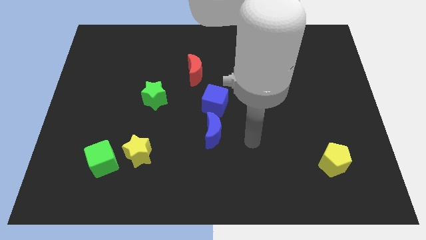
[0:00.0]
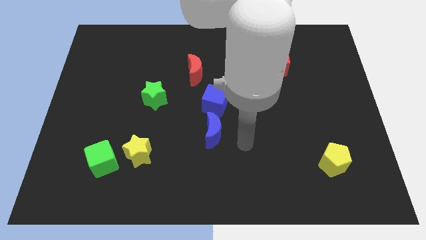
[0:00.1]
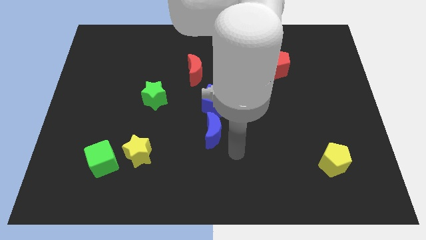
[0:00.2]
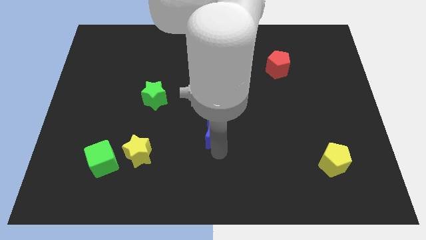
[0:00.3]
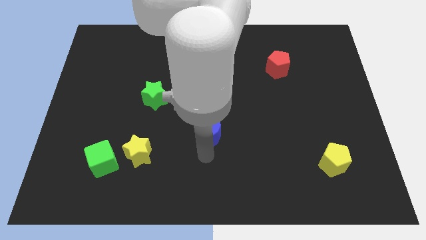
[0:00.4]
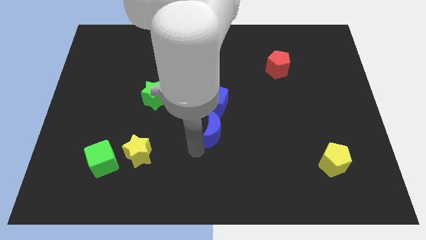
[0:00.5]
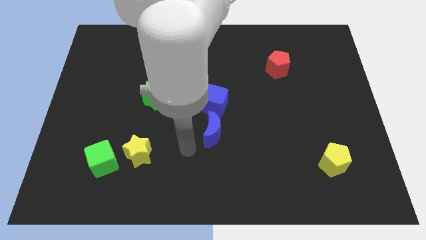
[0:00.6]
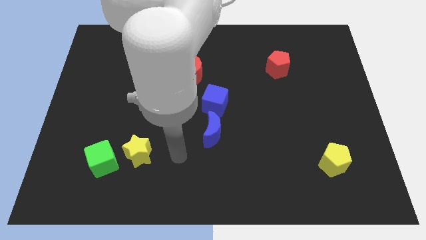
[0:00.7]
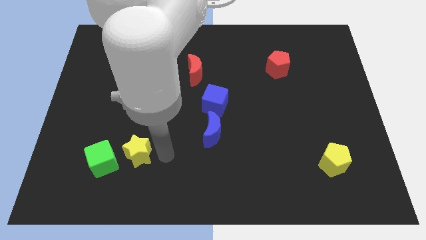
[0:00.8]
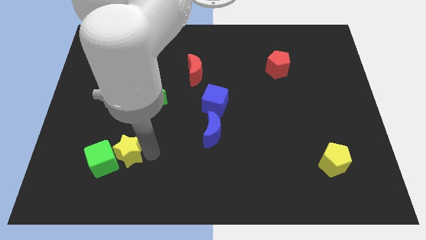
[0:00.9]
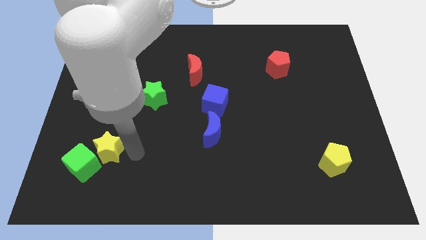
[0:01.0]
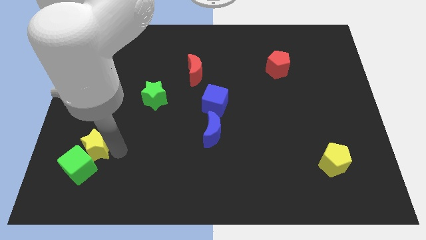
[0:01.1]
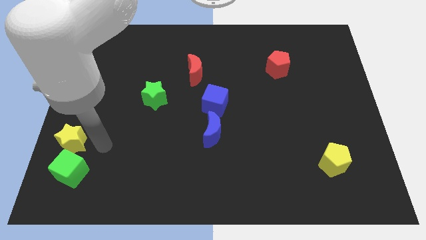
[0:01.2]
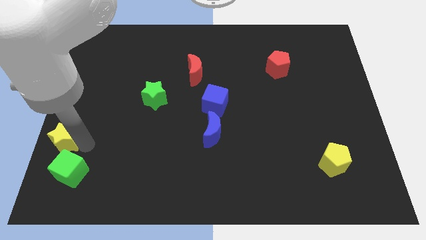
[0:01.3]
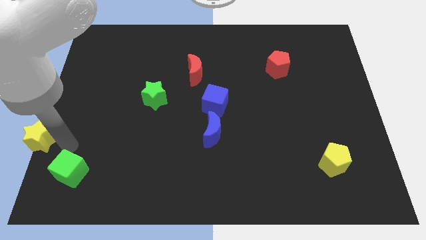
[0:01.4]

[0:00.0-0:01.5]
pull the green cube apart from the yellow star

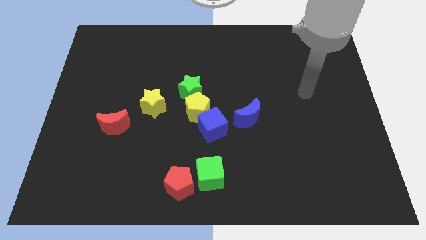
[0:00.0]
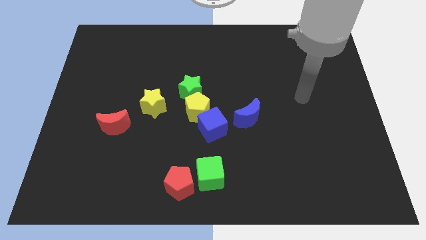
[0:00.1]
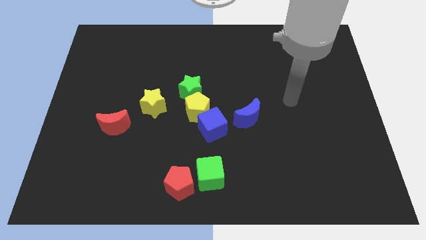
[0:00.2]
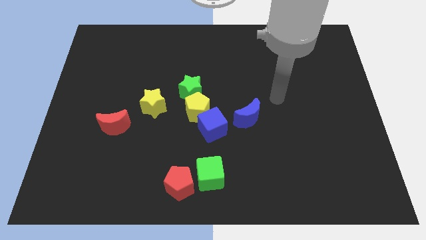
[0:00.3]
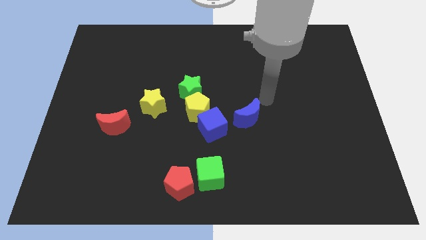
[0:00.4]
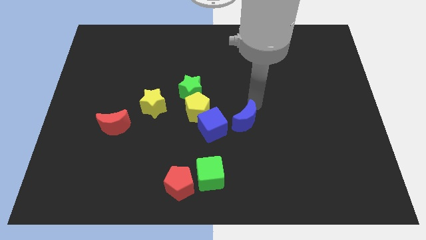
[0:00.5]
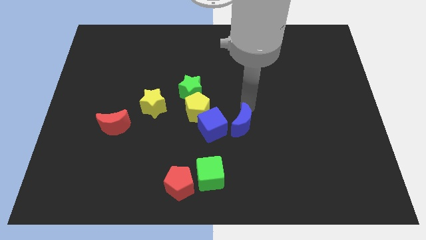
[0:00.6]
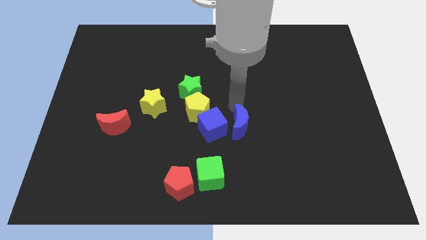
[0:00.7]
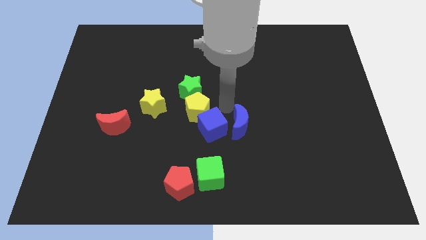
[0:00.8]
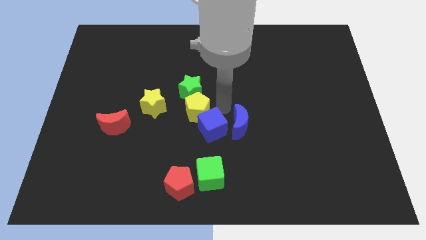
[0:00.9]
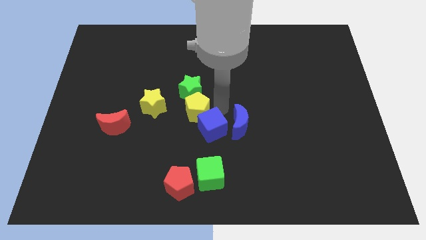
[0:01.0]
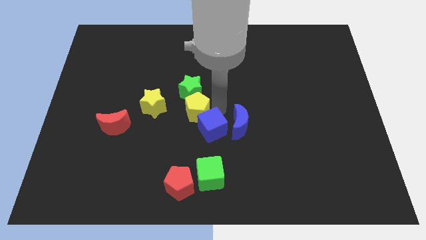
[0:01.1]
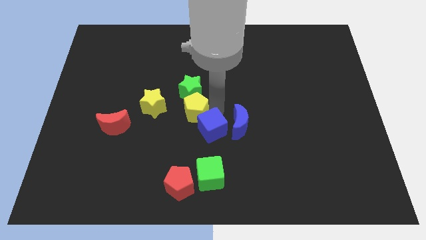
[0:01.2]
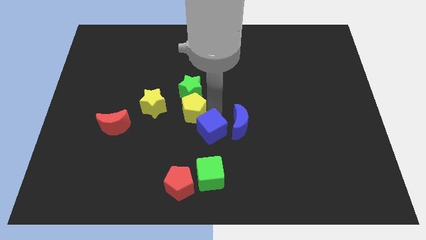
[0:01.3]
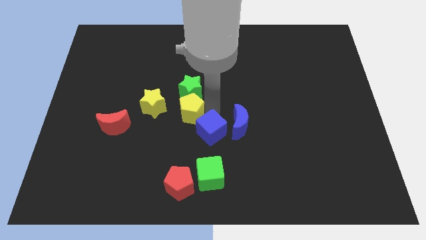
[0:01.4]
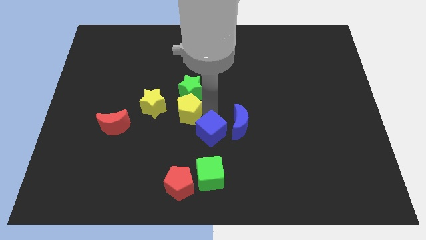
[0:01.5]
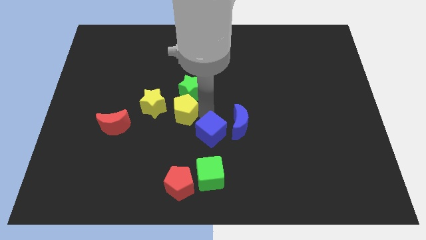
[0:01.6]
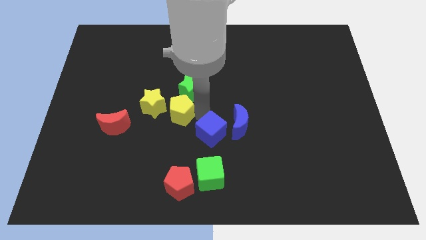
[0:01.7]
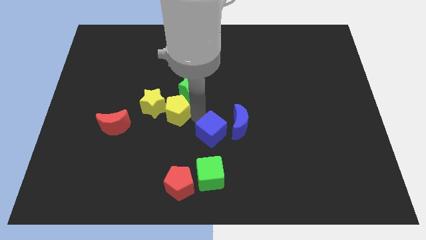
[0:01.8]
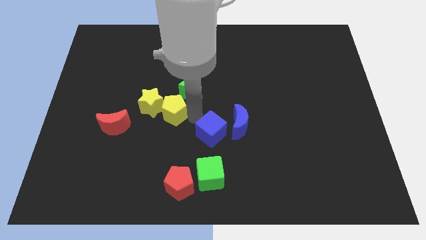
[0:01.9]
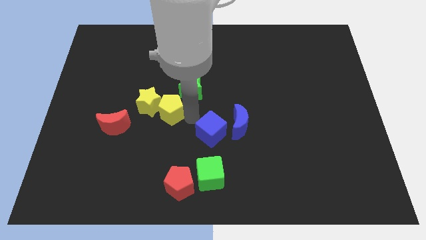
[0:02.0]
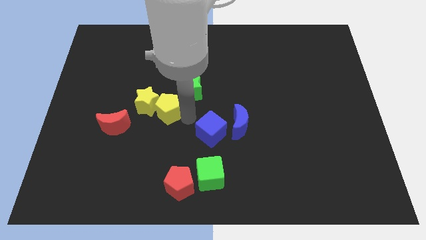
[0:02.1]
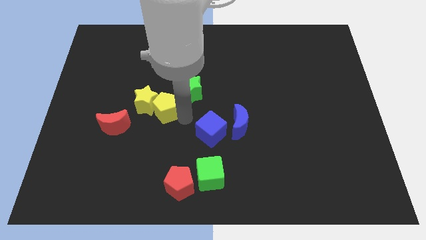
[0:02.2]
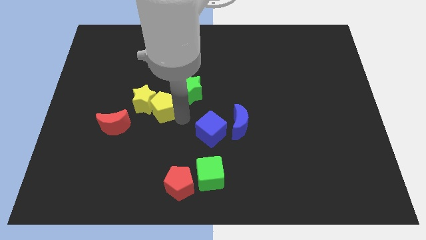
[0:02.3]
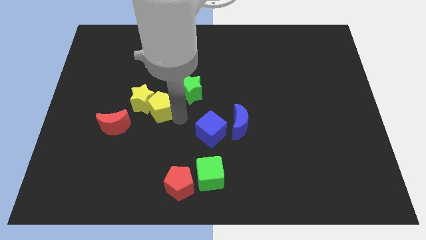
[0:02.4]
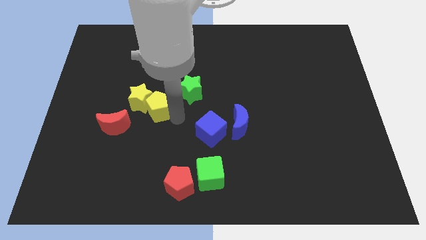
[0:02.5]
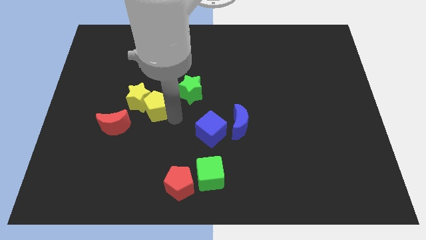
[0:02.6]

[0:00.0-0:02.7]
move the yellow pentagon away from the green star and blue cube

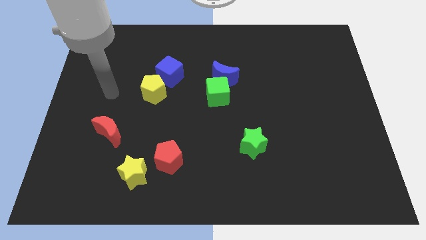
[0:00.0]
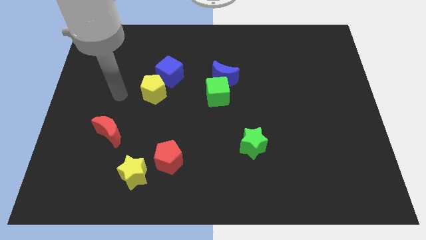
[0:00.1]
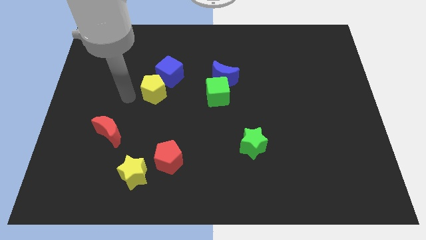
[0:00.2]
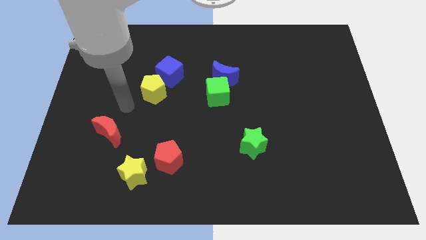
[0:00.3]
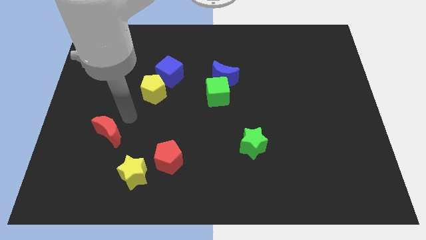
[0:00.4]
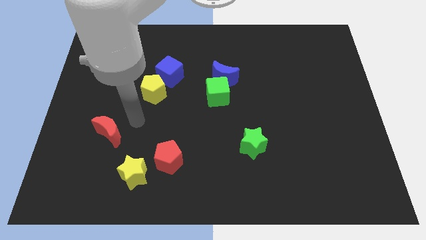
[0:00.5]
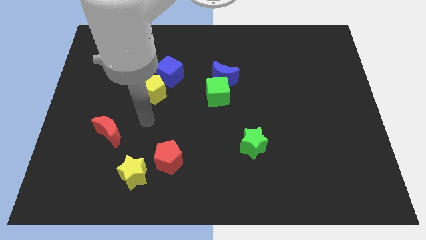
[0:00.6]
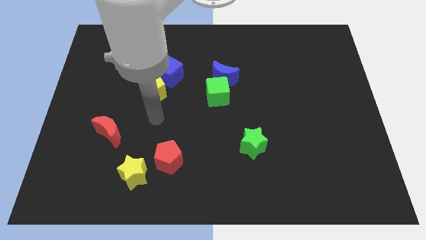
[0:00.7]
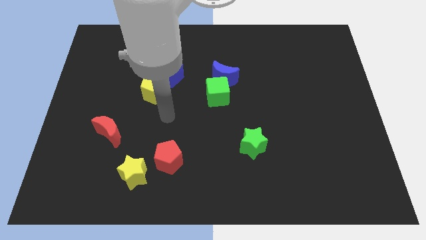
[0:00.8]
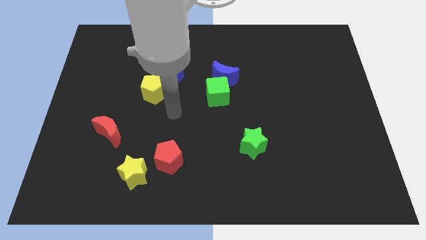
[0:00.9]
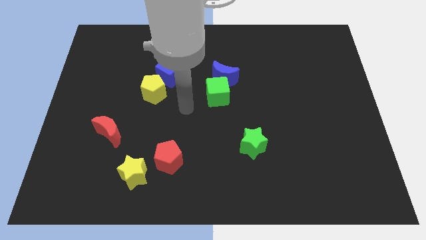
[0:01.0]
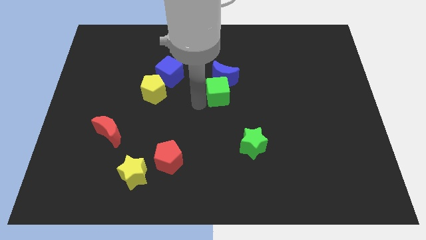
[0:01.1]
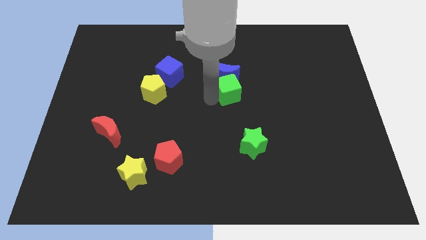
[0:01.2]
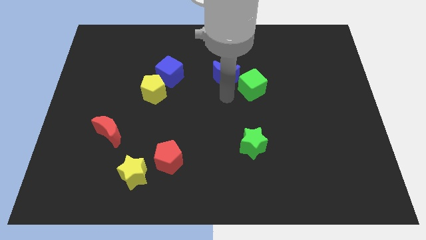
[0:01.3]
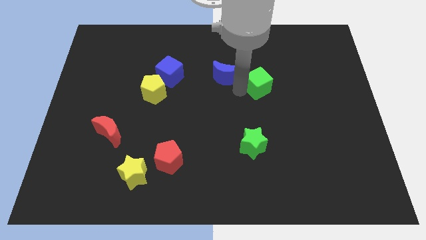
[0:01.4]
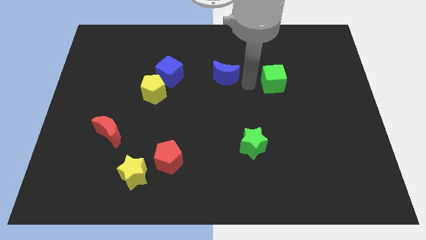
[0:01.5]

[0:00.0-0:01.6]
pull the blue moon apart from the green cube

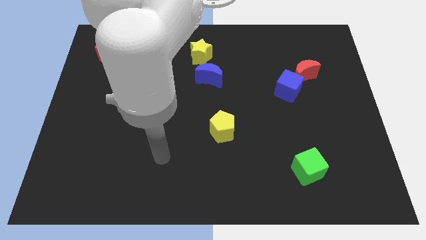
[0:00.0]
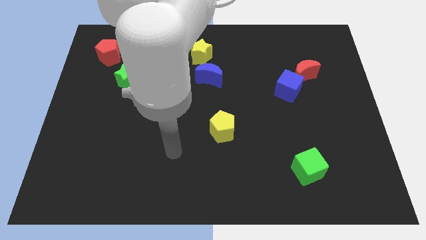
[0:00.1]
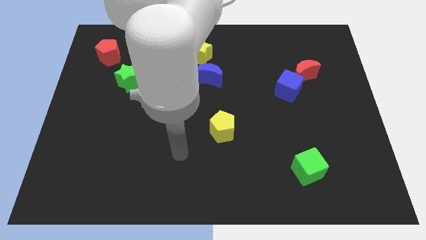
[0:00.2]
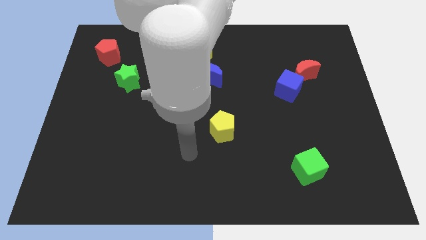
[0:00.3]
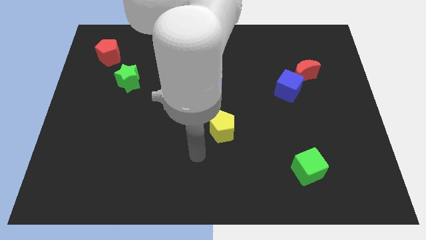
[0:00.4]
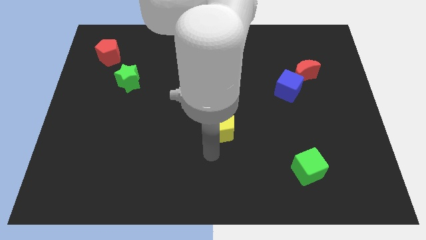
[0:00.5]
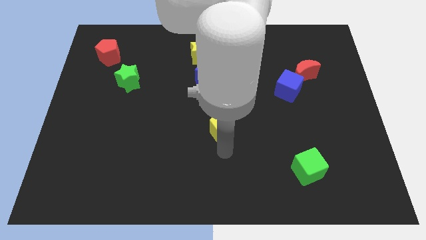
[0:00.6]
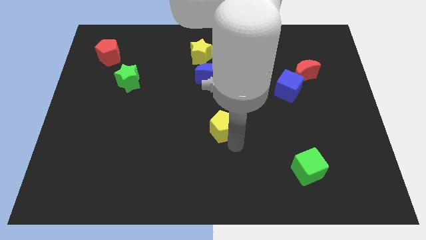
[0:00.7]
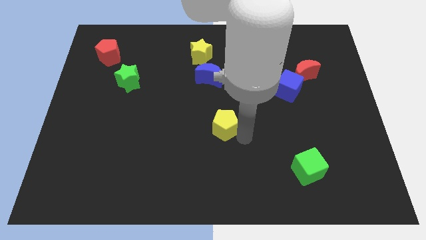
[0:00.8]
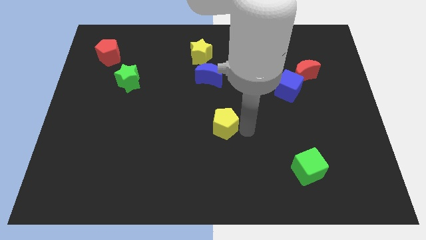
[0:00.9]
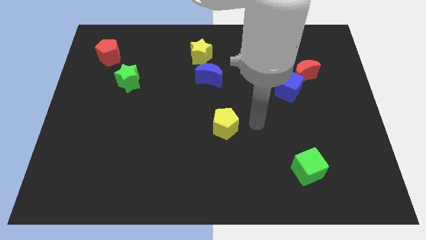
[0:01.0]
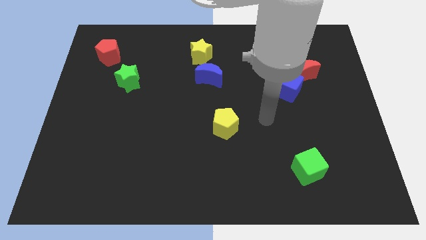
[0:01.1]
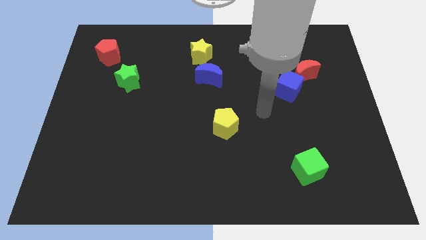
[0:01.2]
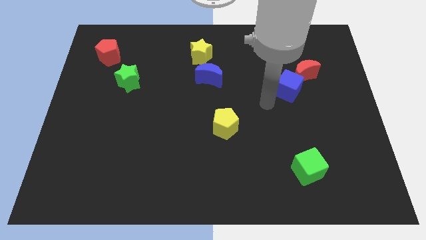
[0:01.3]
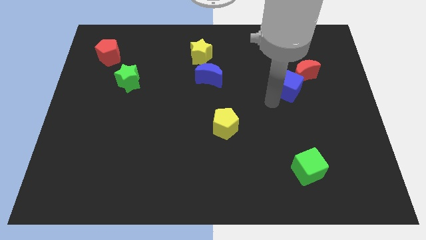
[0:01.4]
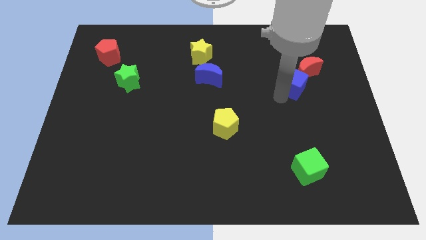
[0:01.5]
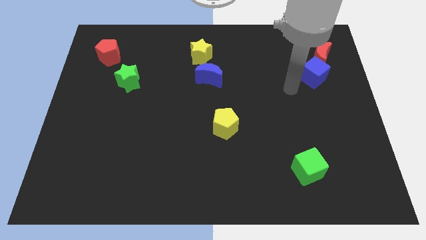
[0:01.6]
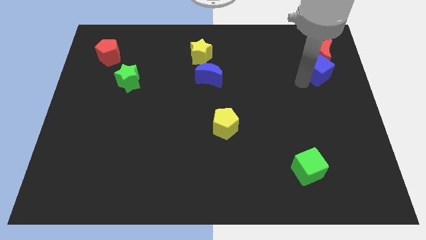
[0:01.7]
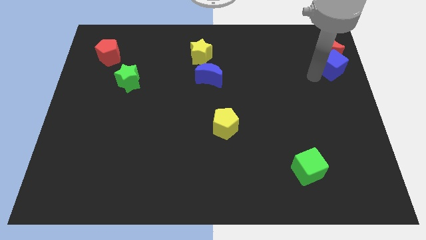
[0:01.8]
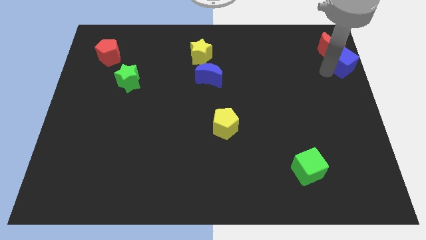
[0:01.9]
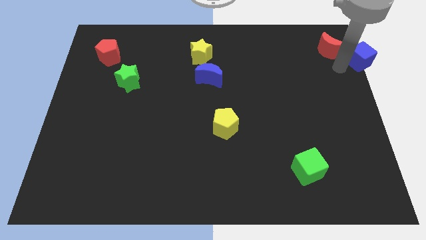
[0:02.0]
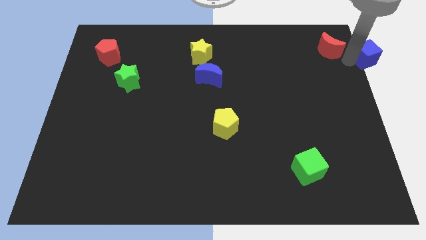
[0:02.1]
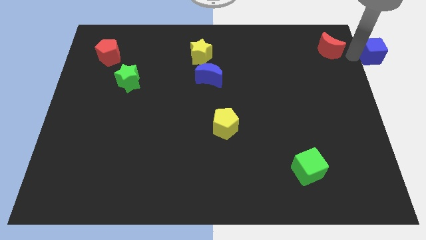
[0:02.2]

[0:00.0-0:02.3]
pull the red moon apart from the blue cube

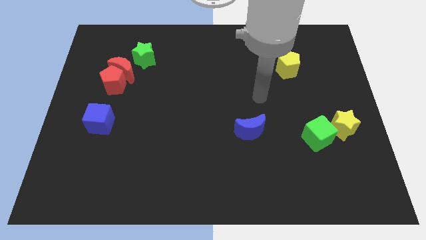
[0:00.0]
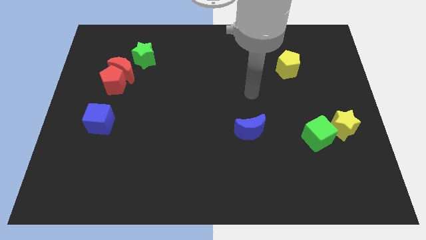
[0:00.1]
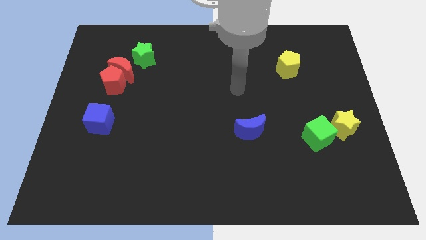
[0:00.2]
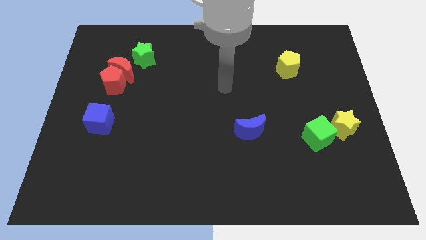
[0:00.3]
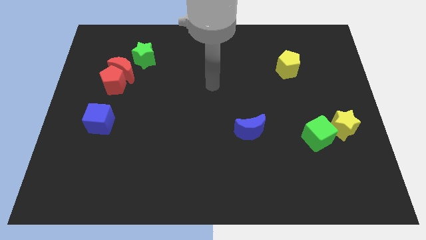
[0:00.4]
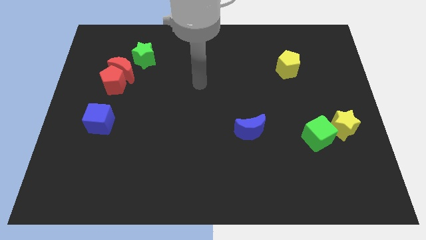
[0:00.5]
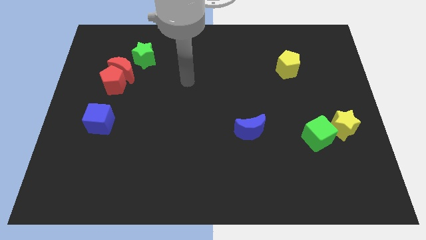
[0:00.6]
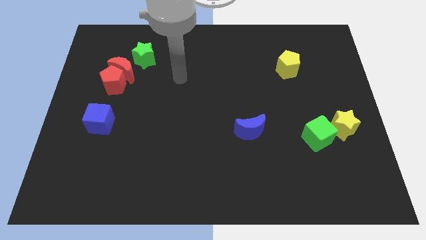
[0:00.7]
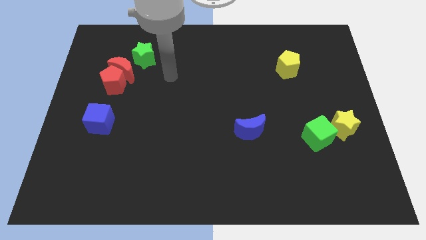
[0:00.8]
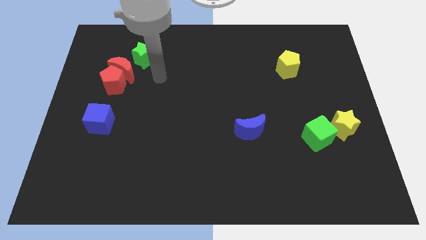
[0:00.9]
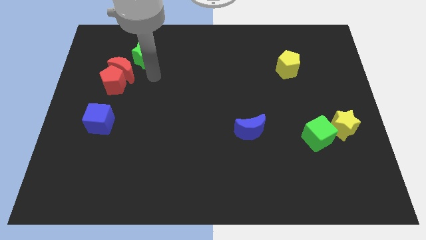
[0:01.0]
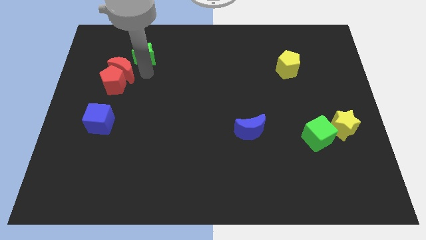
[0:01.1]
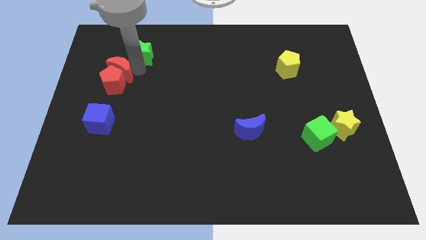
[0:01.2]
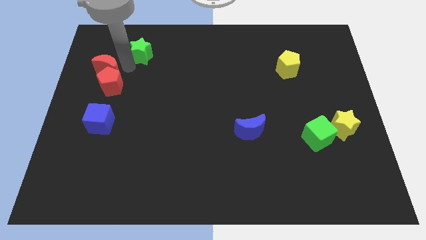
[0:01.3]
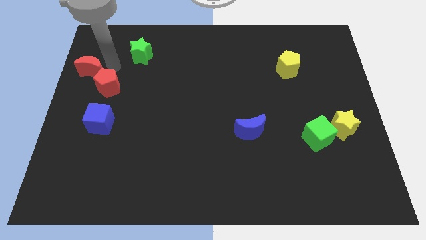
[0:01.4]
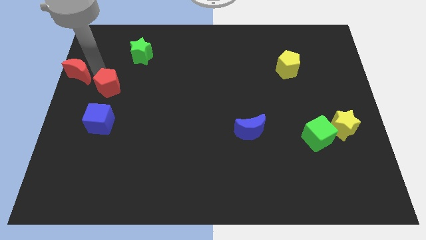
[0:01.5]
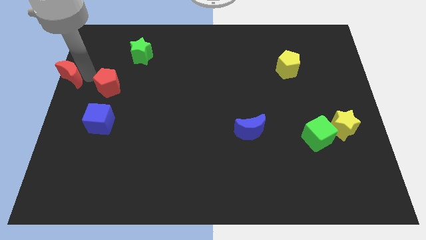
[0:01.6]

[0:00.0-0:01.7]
separate the red pentagon from the red moon
